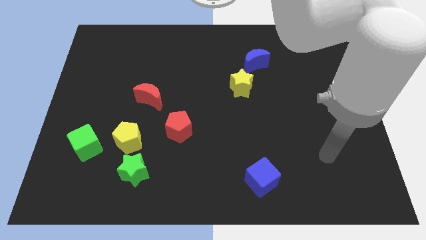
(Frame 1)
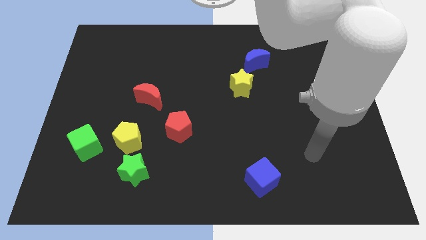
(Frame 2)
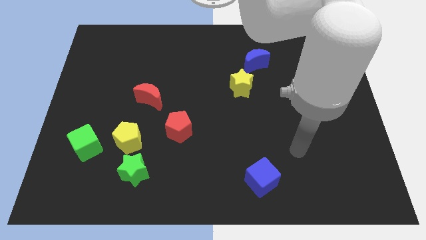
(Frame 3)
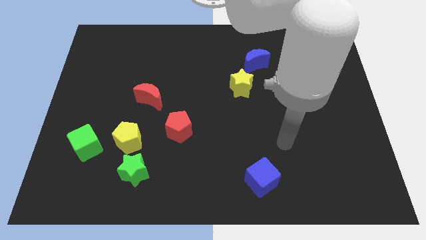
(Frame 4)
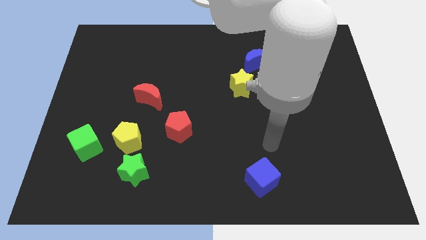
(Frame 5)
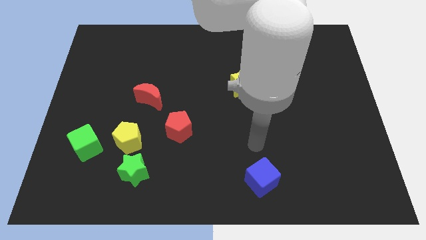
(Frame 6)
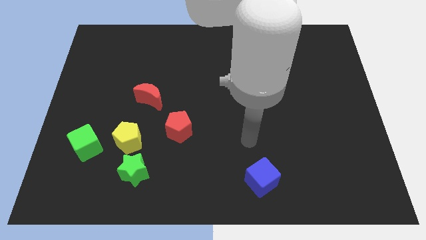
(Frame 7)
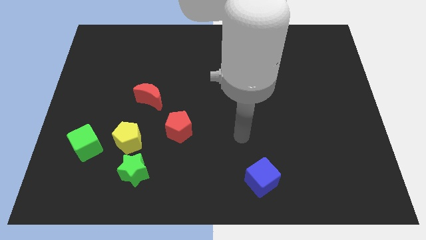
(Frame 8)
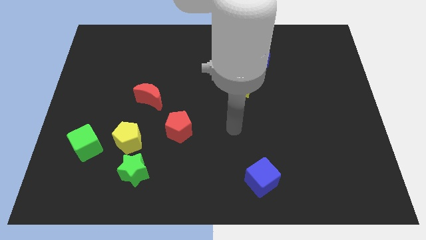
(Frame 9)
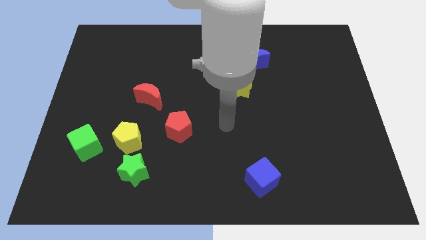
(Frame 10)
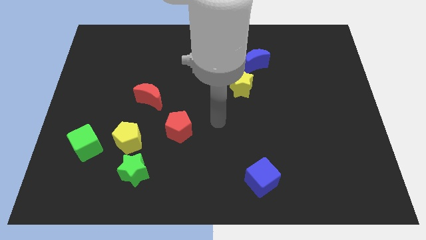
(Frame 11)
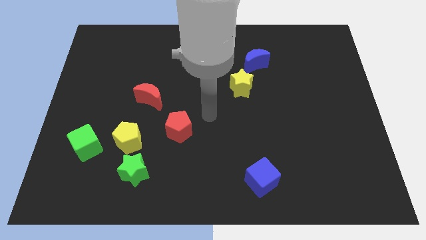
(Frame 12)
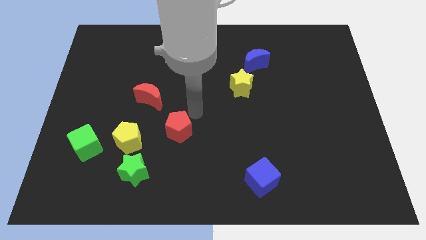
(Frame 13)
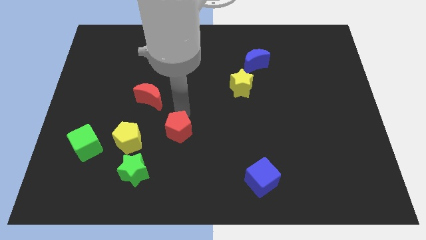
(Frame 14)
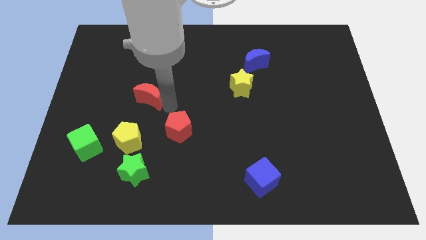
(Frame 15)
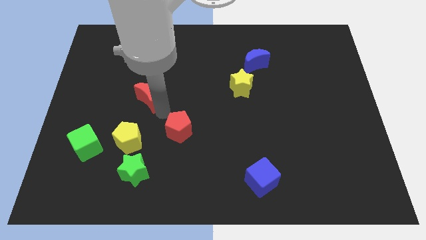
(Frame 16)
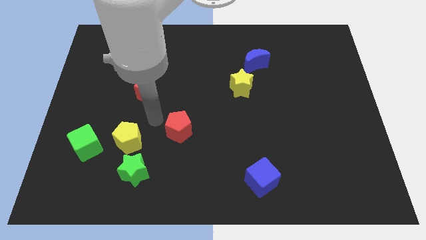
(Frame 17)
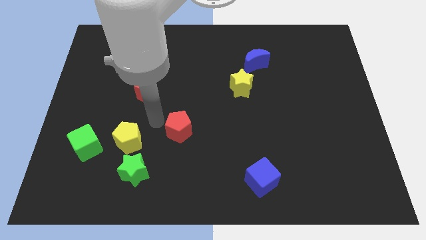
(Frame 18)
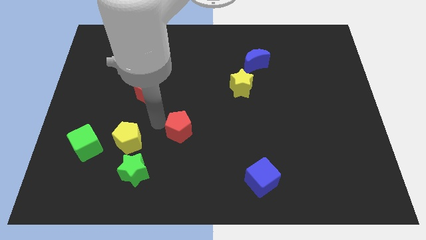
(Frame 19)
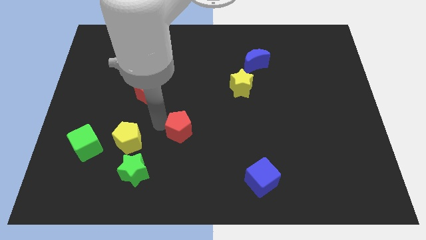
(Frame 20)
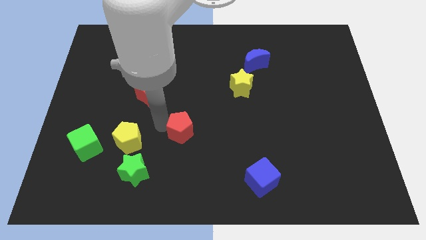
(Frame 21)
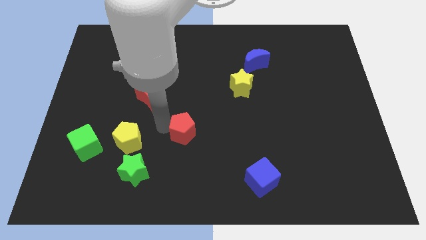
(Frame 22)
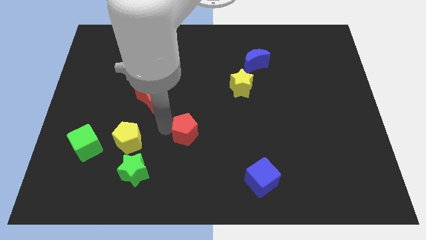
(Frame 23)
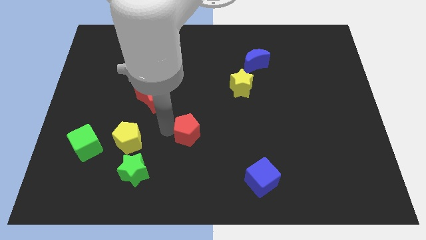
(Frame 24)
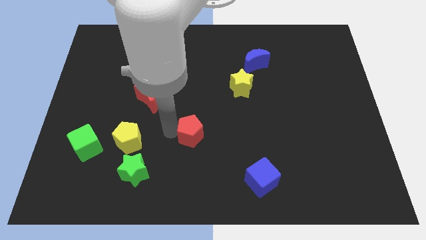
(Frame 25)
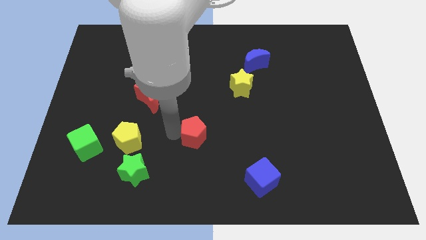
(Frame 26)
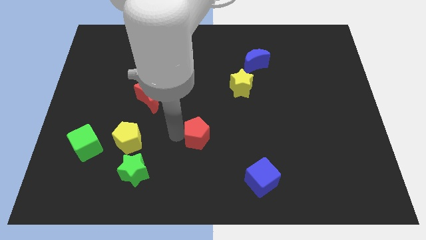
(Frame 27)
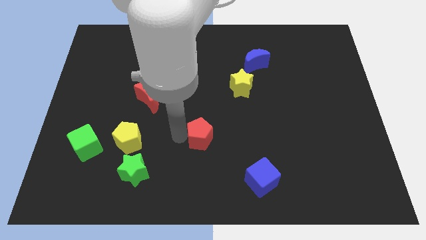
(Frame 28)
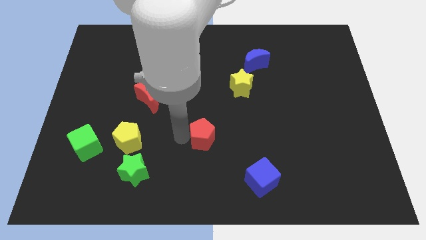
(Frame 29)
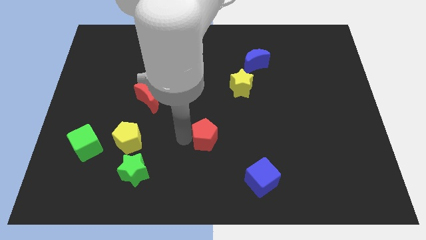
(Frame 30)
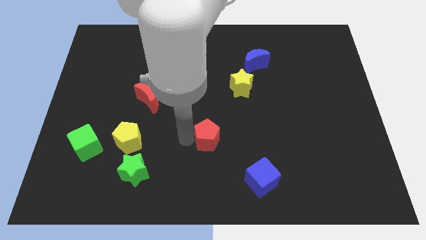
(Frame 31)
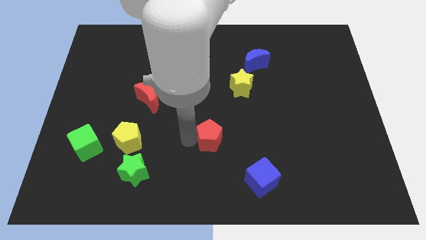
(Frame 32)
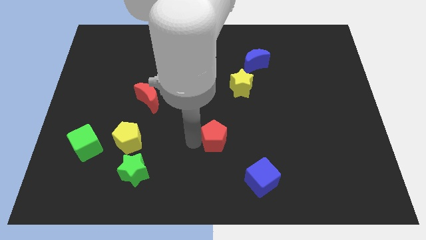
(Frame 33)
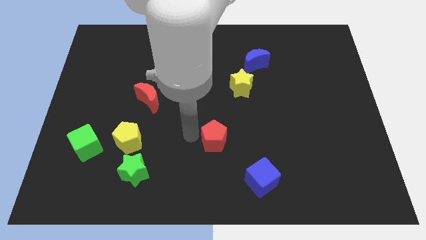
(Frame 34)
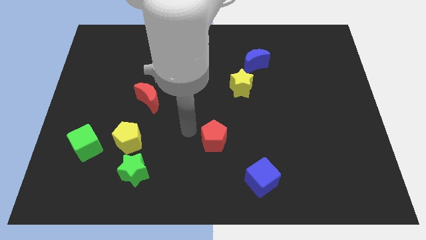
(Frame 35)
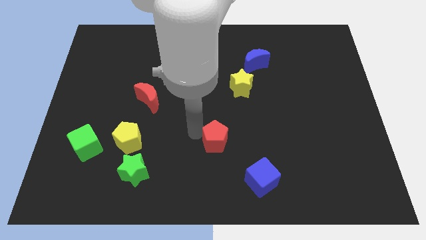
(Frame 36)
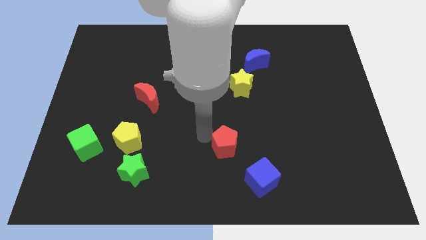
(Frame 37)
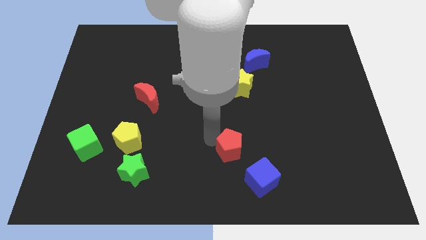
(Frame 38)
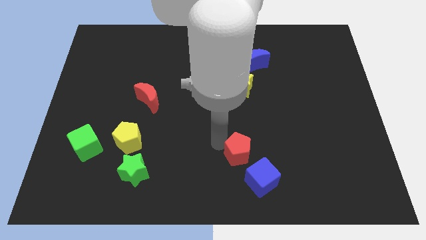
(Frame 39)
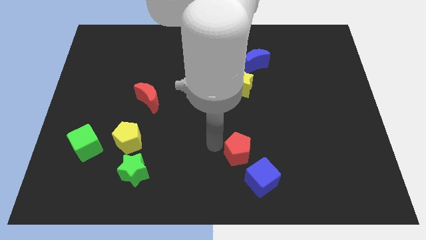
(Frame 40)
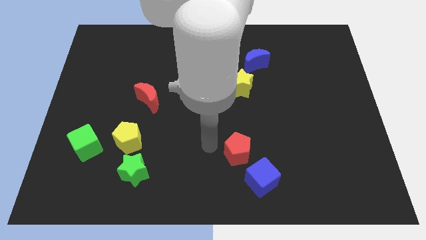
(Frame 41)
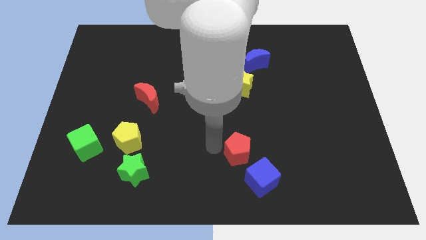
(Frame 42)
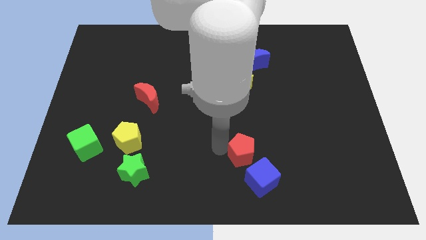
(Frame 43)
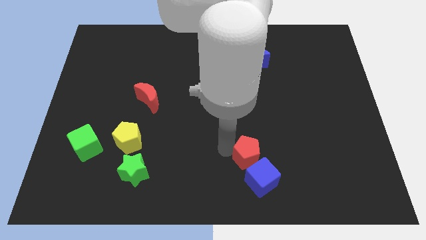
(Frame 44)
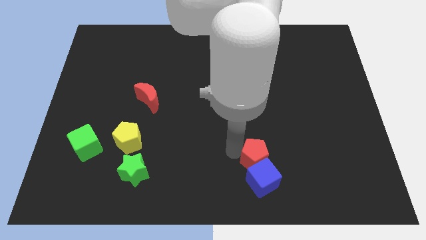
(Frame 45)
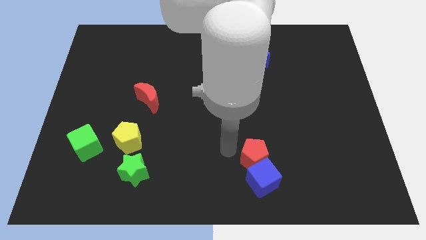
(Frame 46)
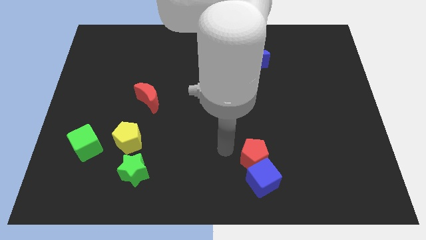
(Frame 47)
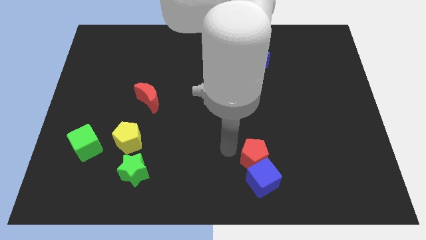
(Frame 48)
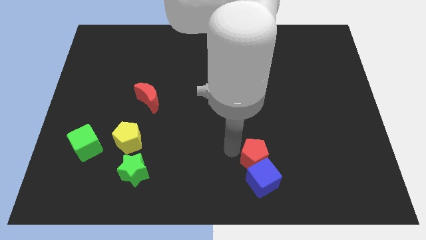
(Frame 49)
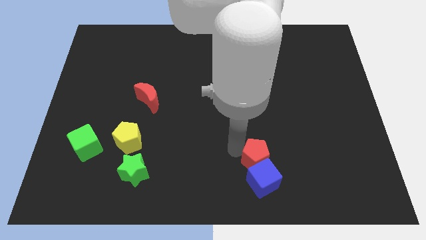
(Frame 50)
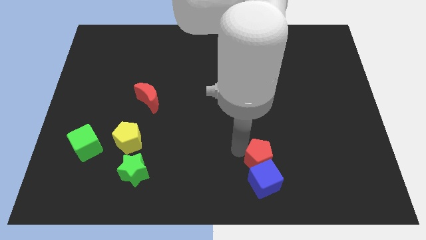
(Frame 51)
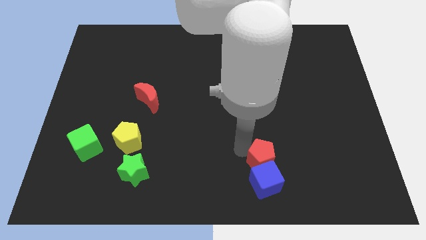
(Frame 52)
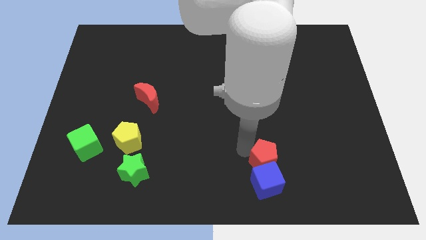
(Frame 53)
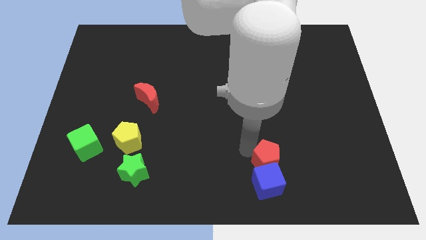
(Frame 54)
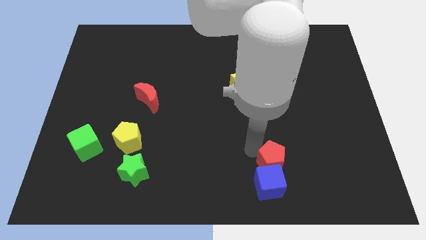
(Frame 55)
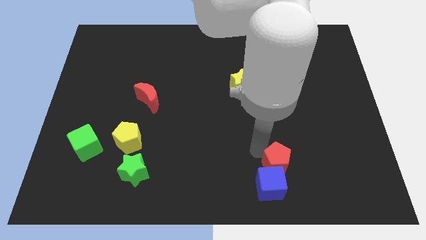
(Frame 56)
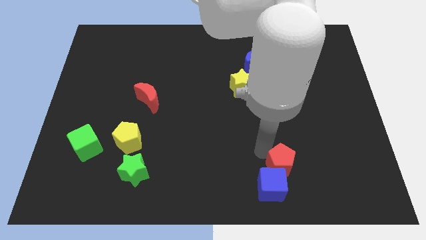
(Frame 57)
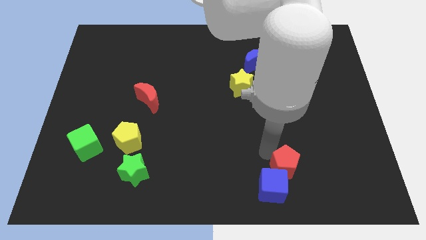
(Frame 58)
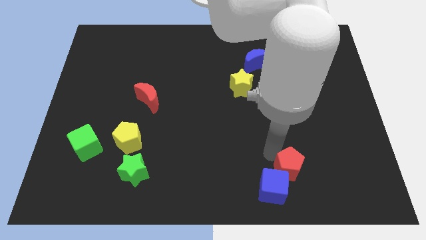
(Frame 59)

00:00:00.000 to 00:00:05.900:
slide the red pentagon right of the blue cube

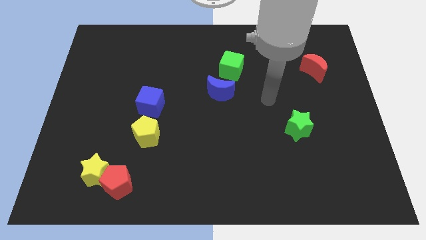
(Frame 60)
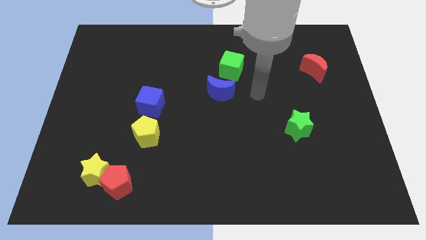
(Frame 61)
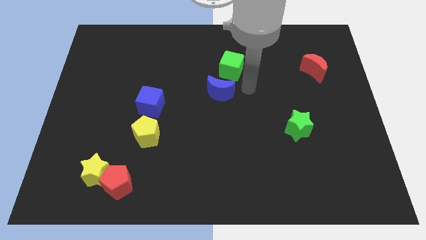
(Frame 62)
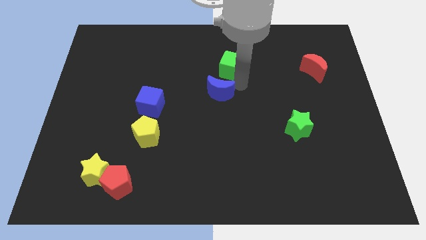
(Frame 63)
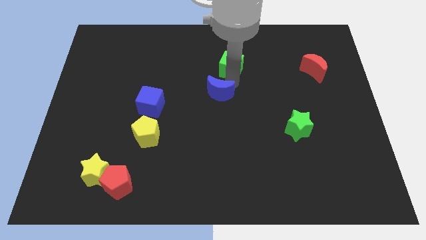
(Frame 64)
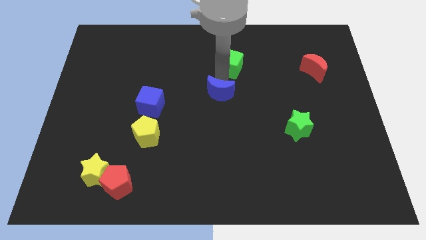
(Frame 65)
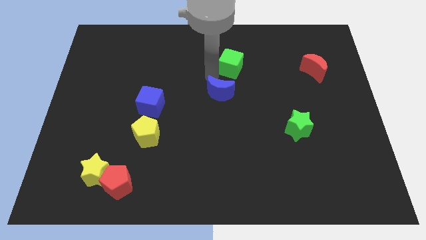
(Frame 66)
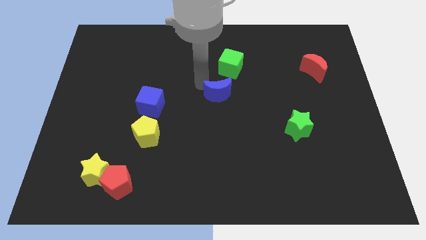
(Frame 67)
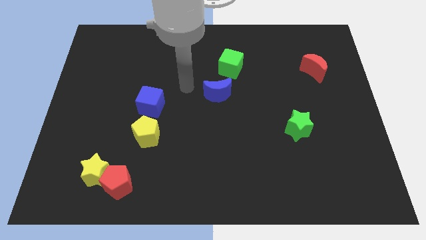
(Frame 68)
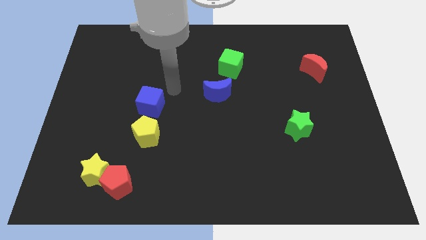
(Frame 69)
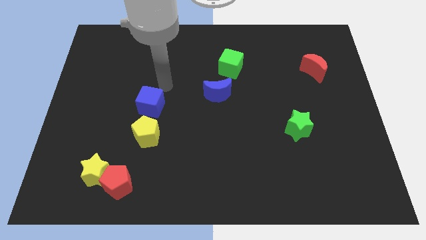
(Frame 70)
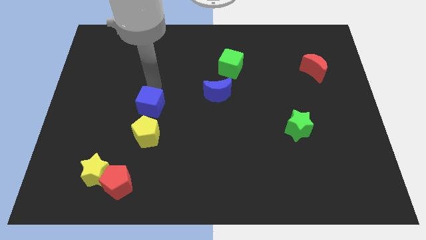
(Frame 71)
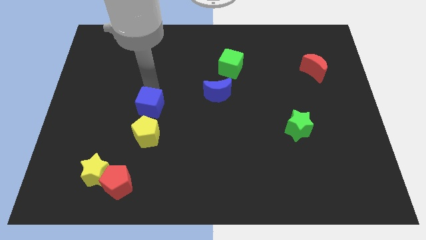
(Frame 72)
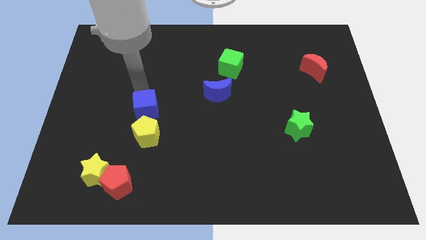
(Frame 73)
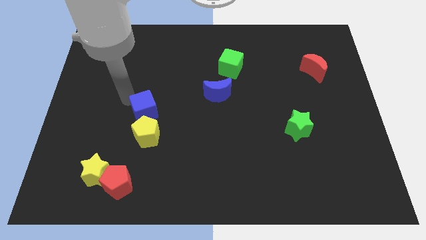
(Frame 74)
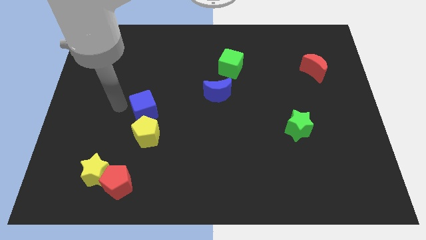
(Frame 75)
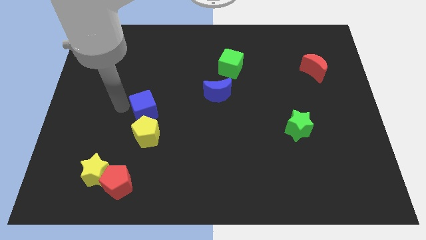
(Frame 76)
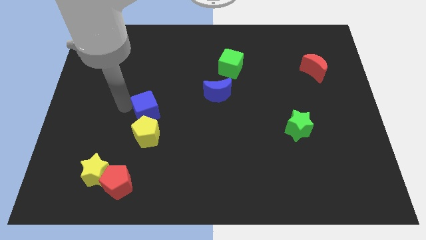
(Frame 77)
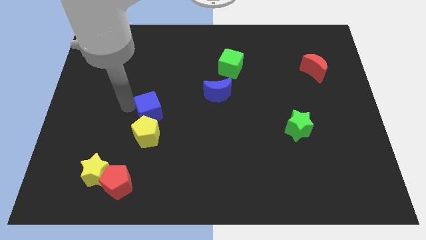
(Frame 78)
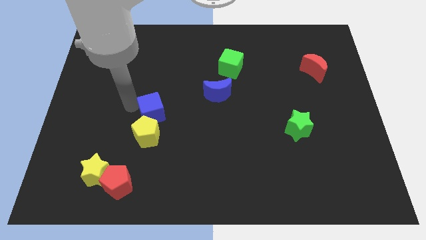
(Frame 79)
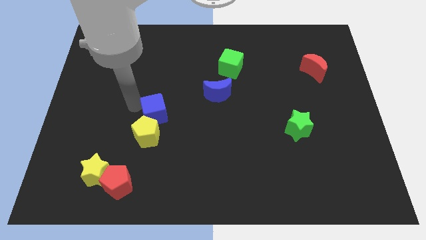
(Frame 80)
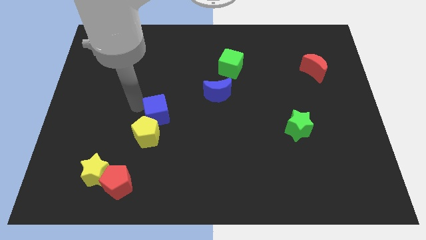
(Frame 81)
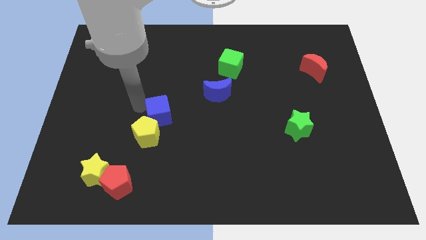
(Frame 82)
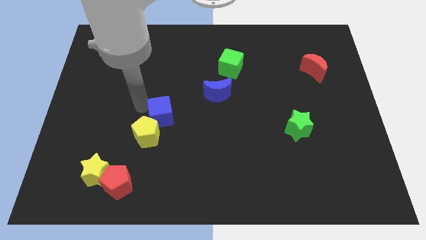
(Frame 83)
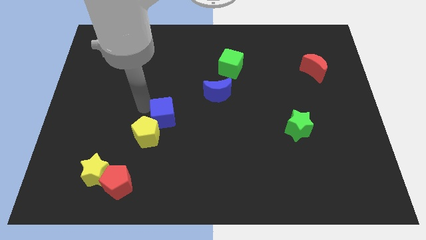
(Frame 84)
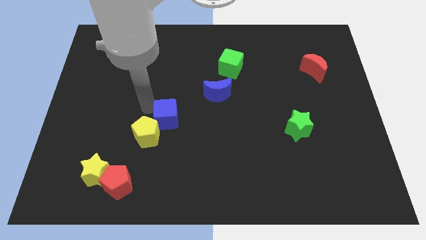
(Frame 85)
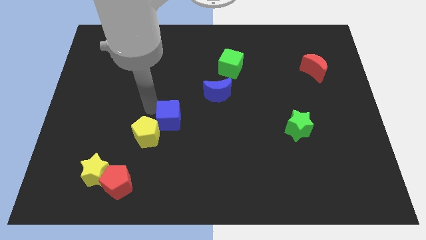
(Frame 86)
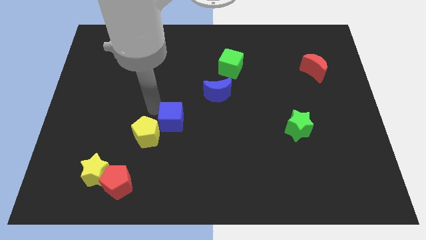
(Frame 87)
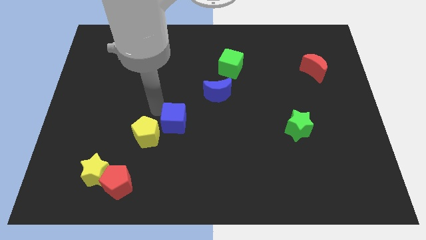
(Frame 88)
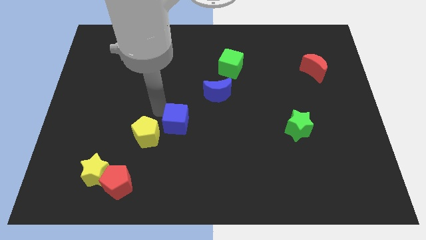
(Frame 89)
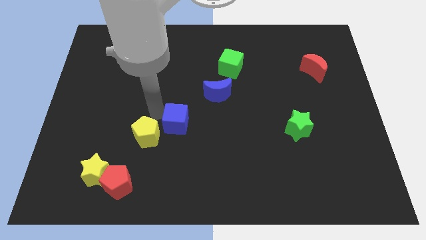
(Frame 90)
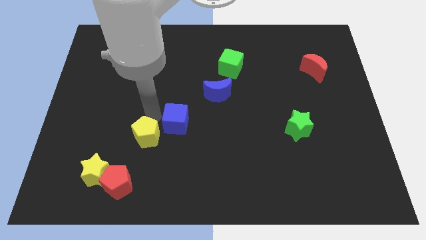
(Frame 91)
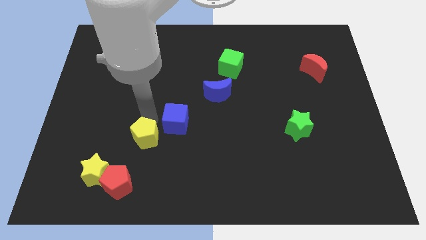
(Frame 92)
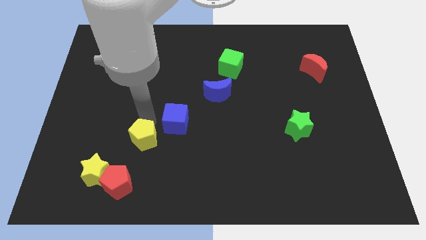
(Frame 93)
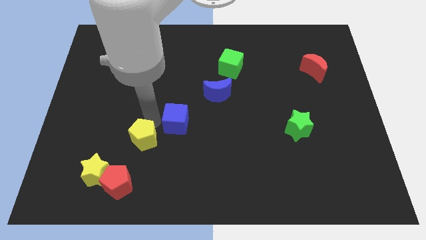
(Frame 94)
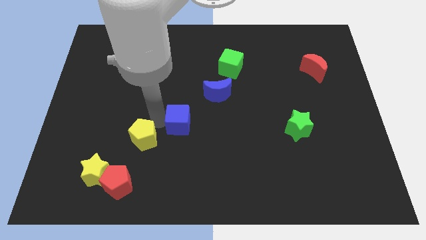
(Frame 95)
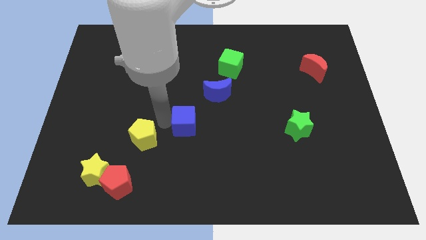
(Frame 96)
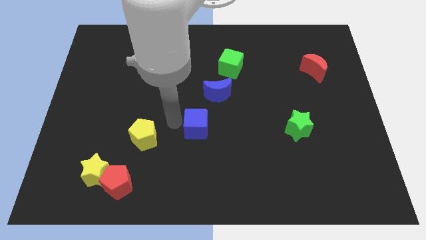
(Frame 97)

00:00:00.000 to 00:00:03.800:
put the blue cube to the bottom of the blue moon
